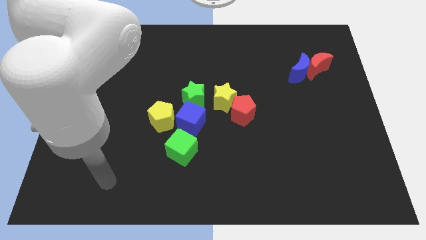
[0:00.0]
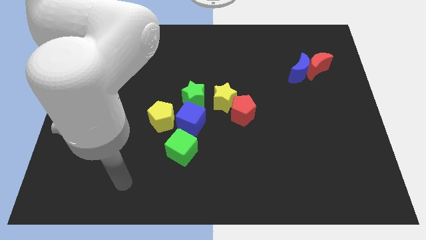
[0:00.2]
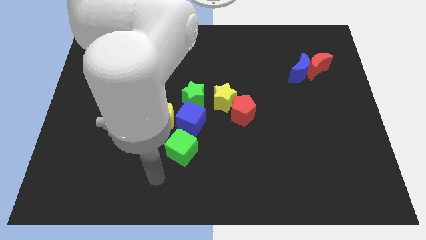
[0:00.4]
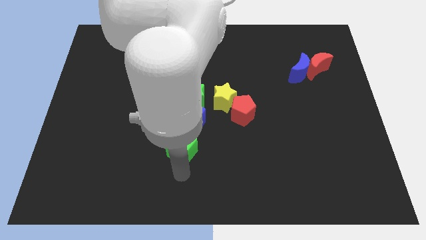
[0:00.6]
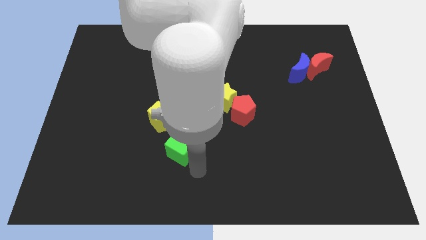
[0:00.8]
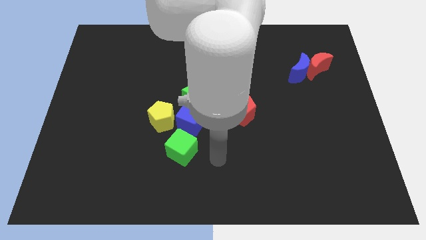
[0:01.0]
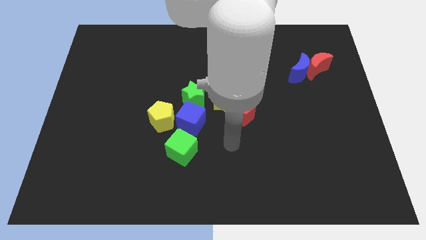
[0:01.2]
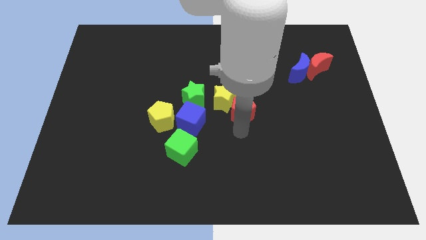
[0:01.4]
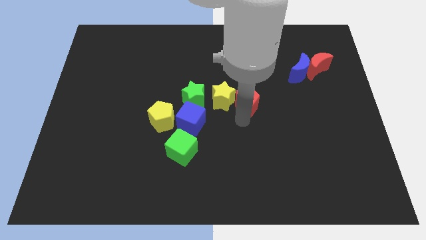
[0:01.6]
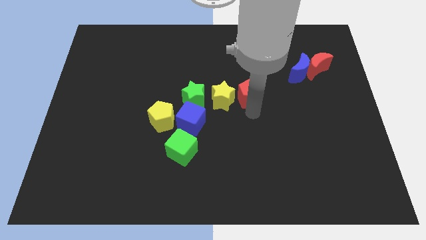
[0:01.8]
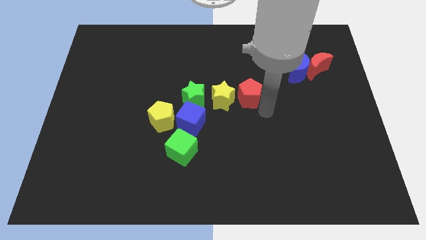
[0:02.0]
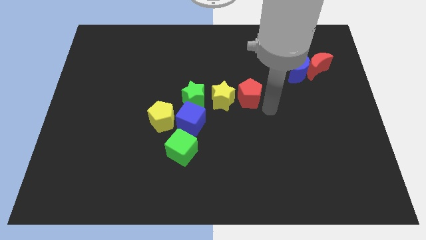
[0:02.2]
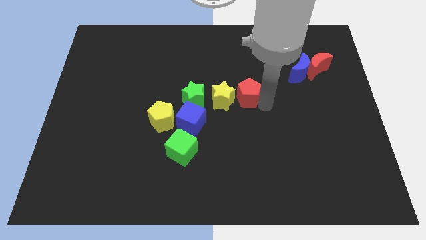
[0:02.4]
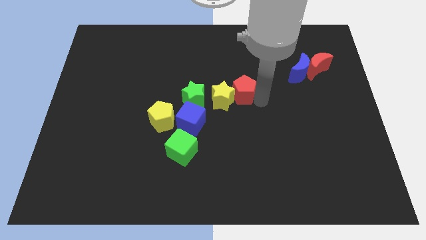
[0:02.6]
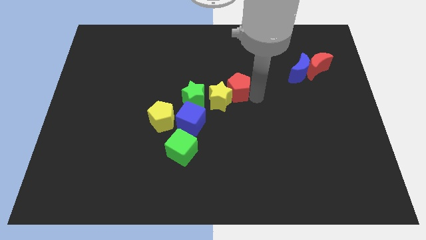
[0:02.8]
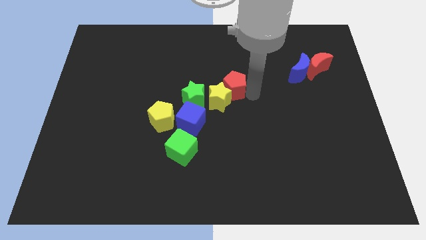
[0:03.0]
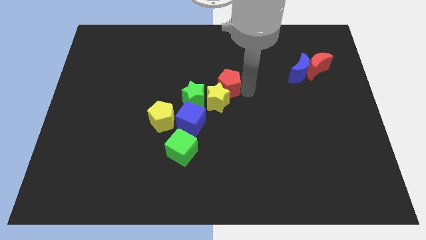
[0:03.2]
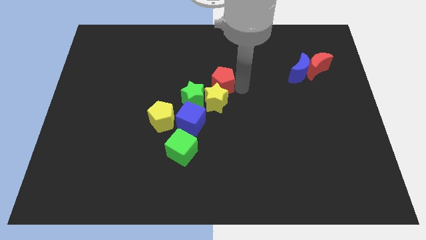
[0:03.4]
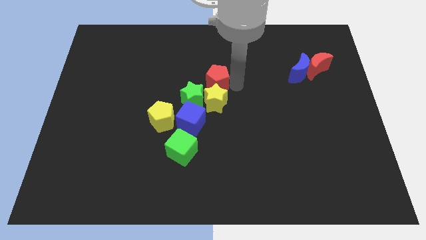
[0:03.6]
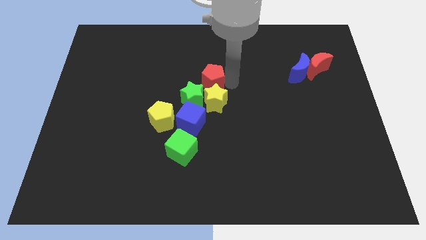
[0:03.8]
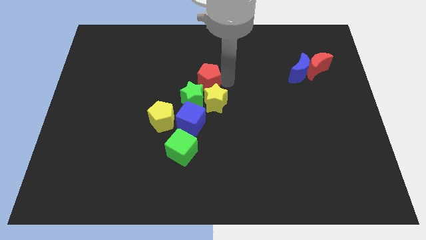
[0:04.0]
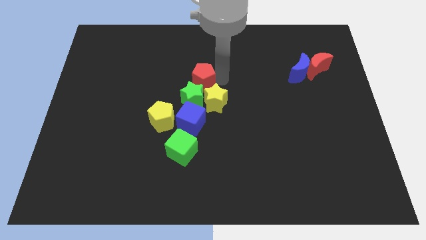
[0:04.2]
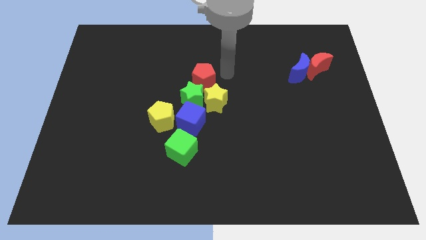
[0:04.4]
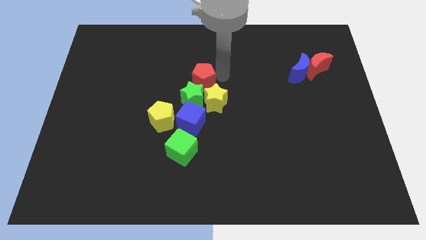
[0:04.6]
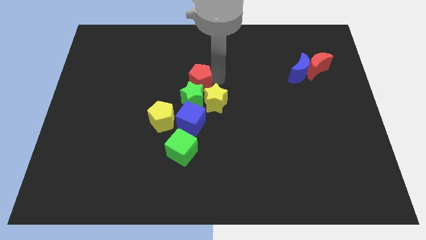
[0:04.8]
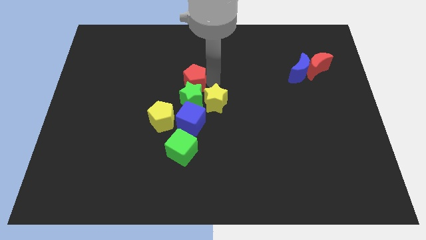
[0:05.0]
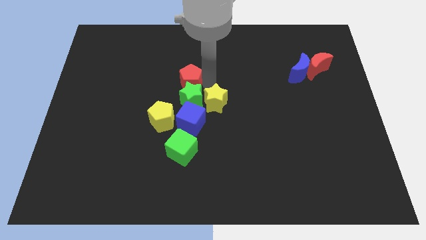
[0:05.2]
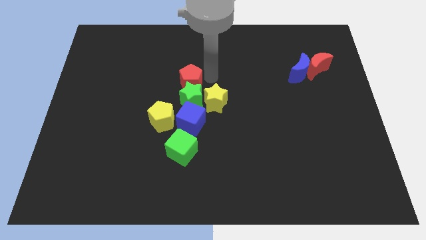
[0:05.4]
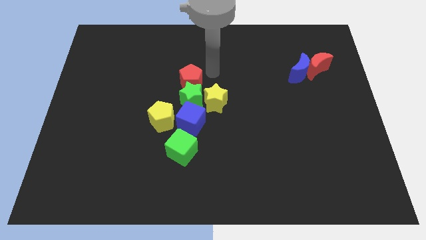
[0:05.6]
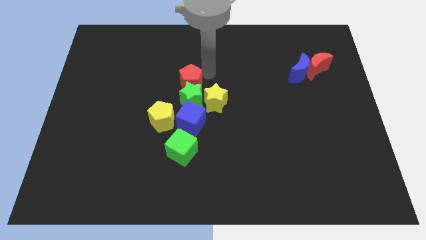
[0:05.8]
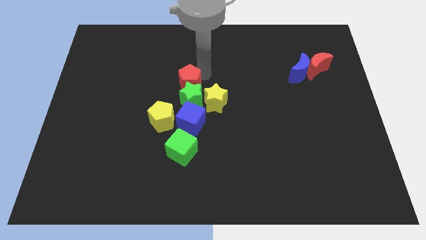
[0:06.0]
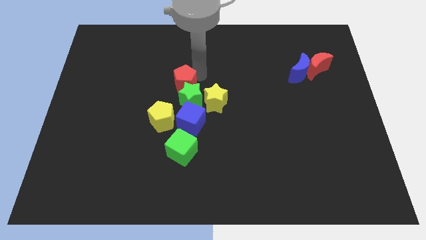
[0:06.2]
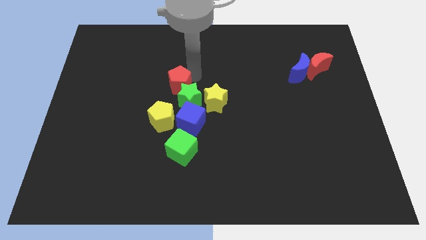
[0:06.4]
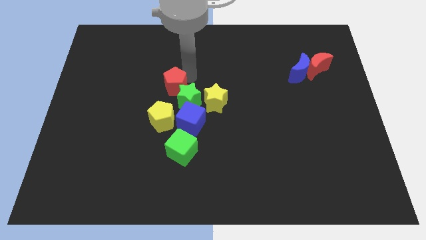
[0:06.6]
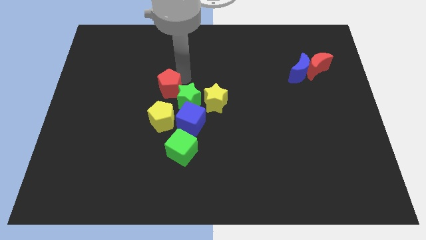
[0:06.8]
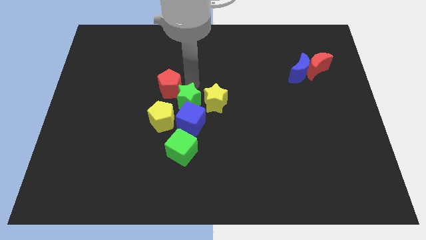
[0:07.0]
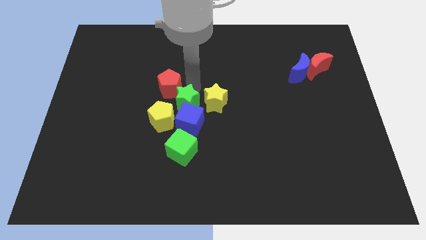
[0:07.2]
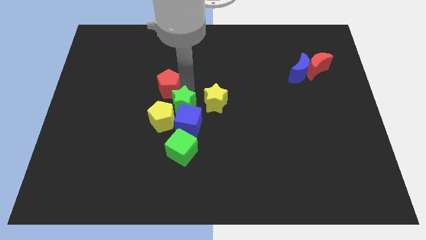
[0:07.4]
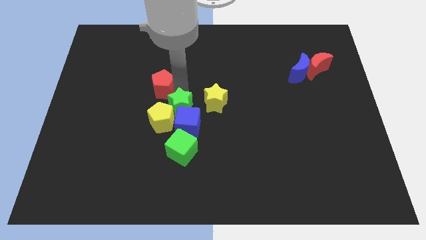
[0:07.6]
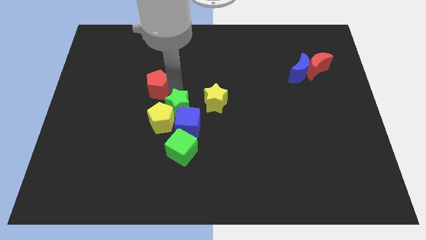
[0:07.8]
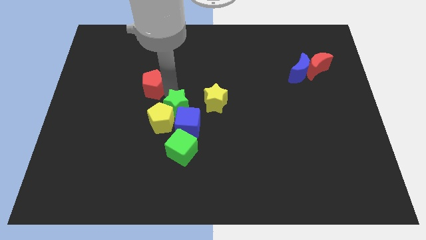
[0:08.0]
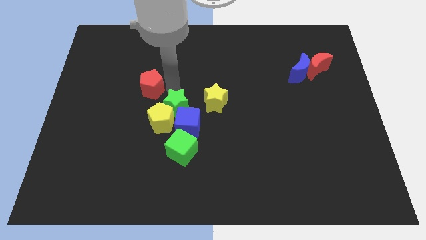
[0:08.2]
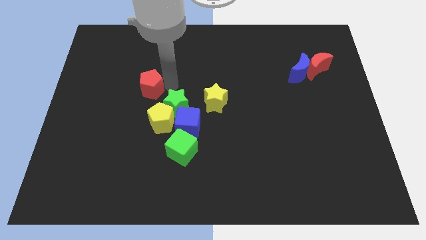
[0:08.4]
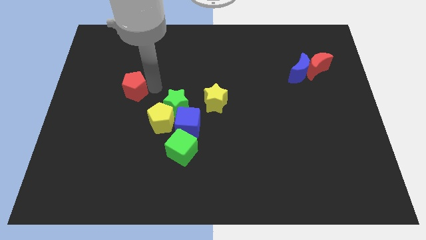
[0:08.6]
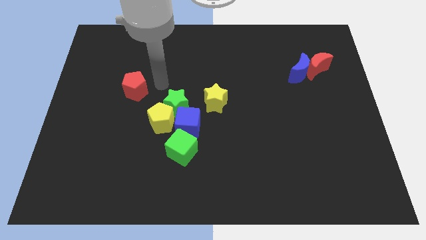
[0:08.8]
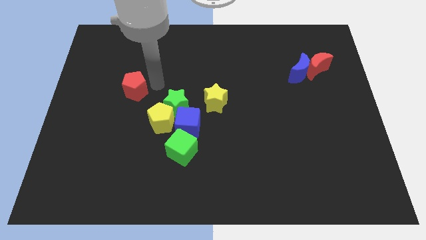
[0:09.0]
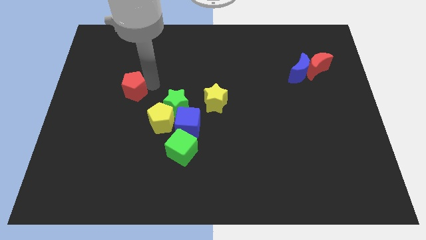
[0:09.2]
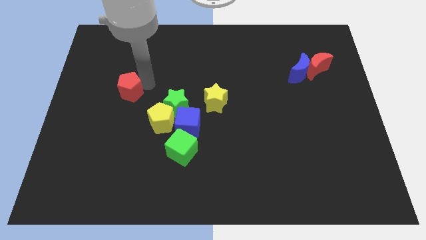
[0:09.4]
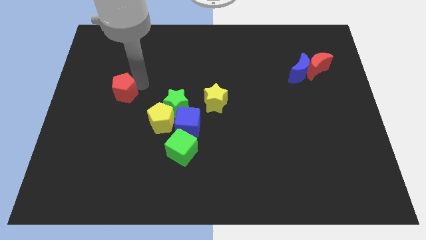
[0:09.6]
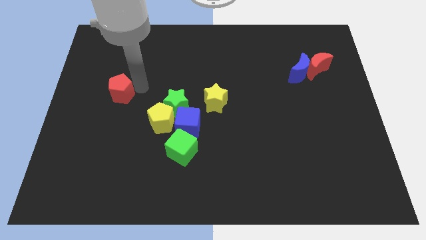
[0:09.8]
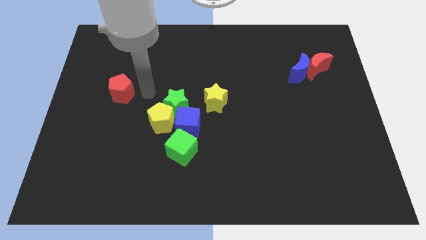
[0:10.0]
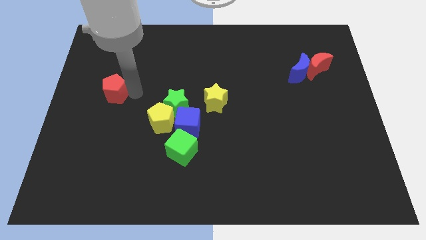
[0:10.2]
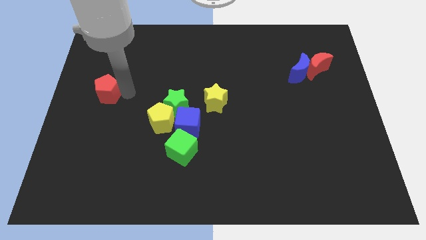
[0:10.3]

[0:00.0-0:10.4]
put the red pentagon to the left side of the board

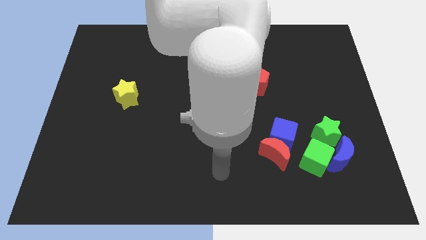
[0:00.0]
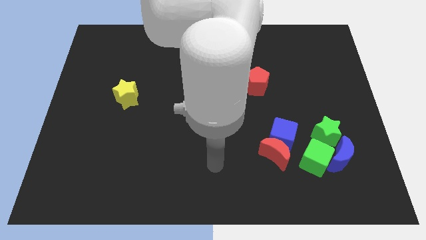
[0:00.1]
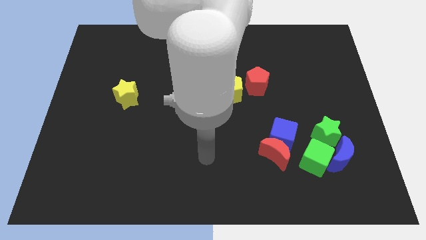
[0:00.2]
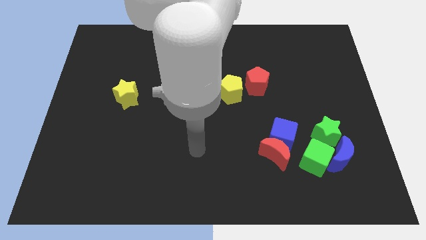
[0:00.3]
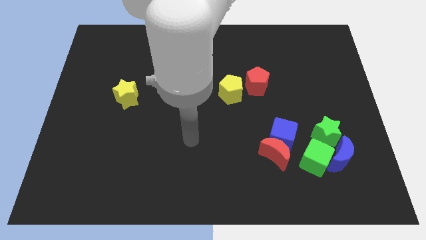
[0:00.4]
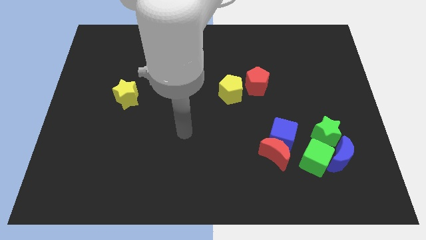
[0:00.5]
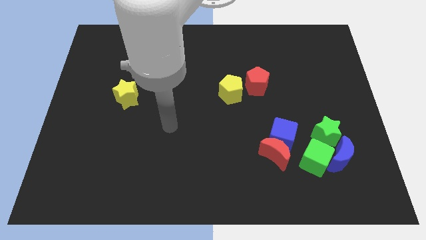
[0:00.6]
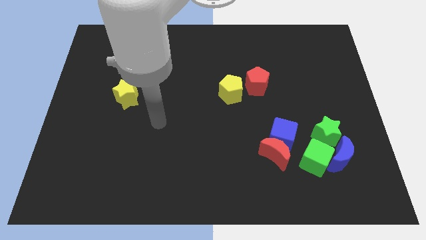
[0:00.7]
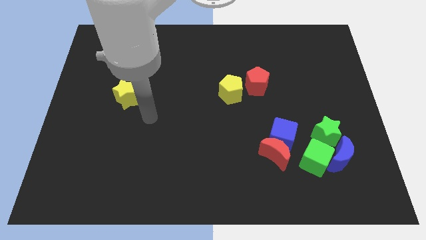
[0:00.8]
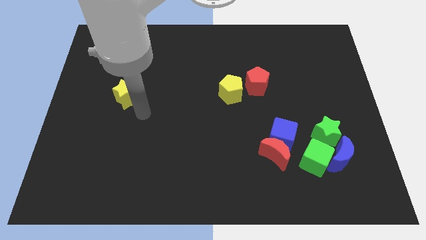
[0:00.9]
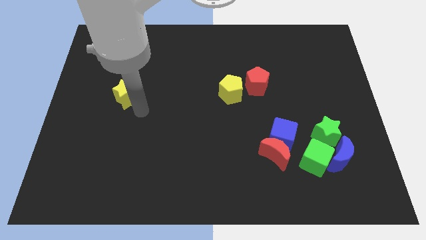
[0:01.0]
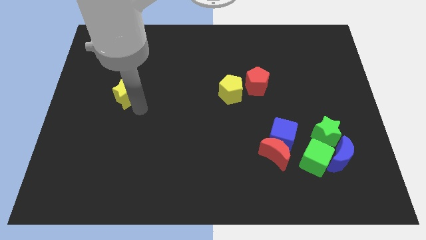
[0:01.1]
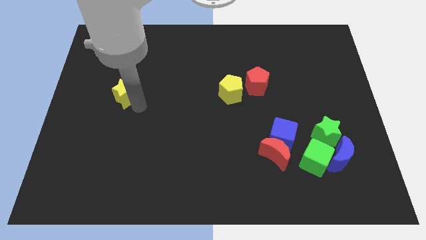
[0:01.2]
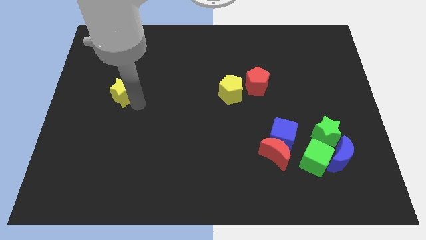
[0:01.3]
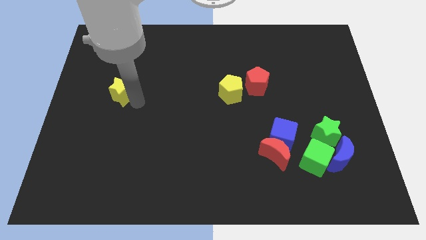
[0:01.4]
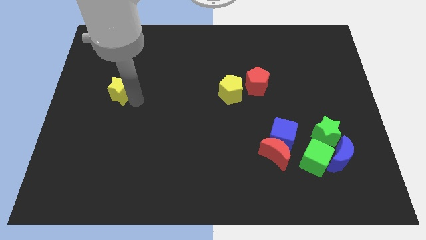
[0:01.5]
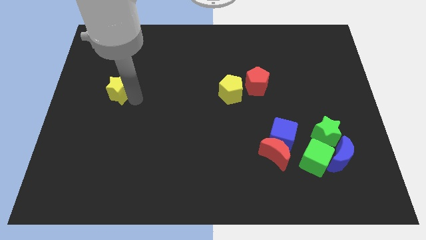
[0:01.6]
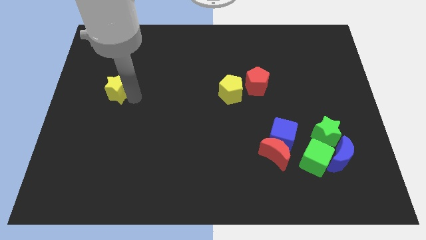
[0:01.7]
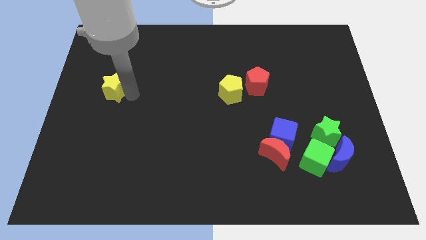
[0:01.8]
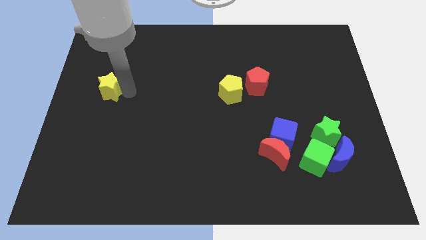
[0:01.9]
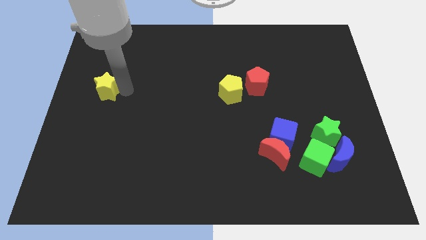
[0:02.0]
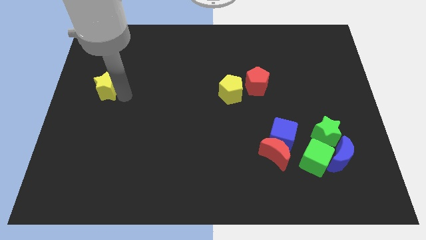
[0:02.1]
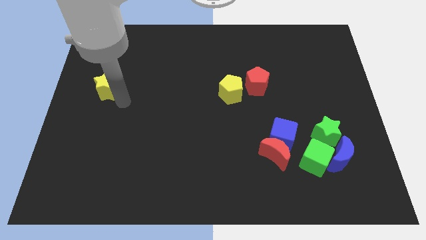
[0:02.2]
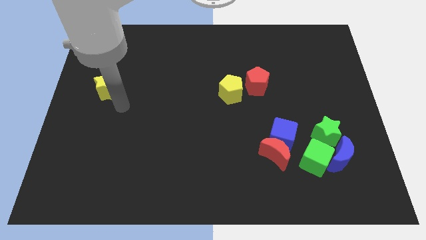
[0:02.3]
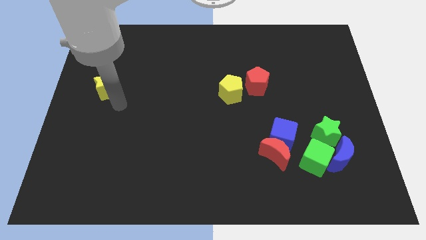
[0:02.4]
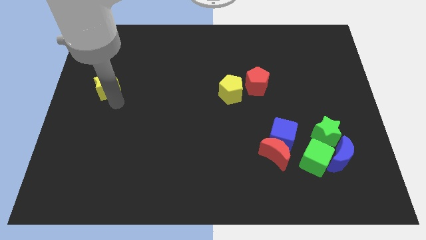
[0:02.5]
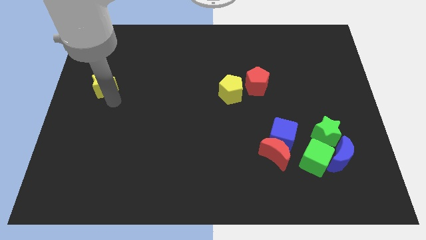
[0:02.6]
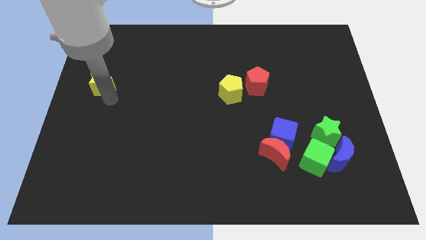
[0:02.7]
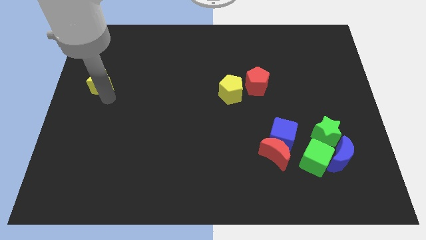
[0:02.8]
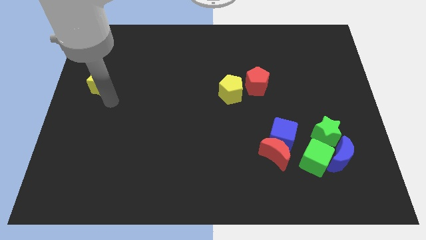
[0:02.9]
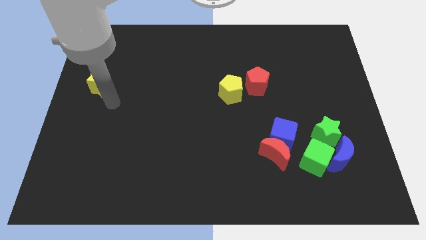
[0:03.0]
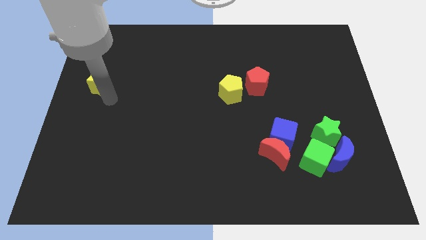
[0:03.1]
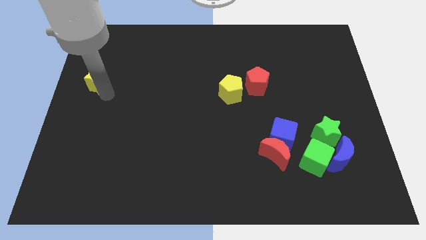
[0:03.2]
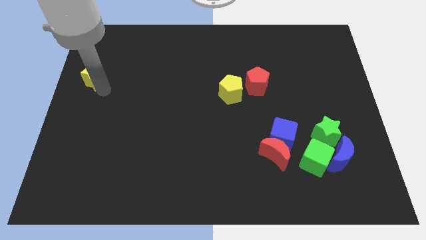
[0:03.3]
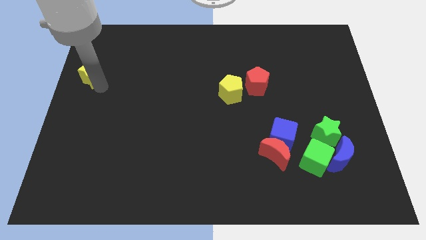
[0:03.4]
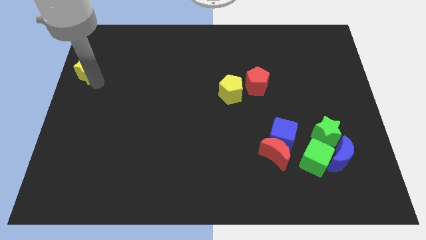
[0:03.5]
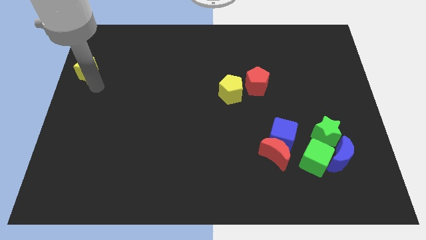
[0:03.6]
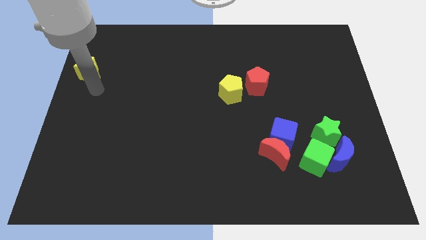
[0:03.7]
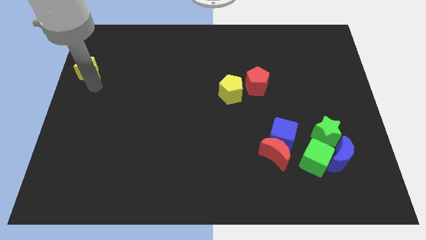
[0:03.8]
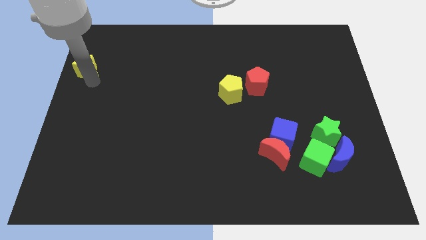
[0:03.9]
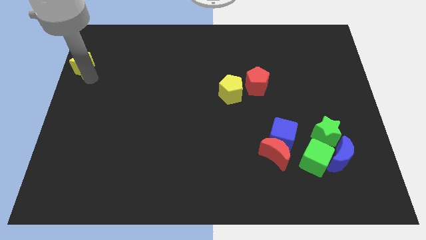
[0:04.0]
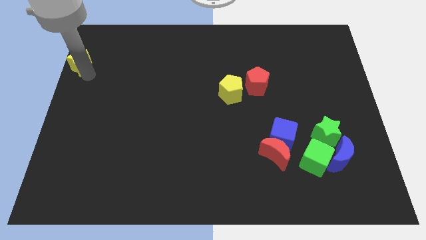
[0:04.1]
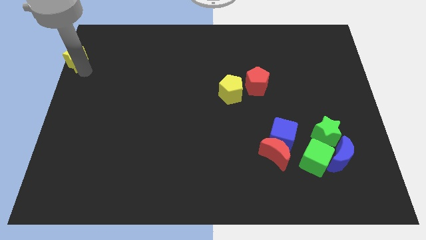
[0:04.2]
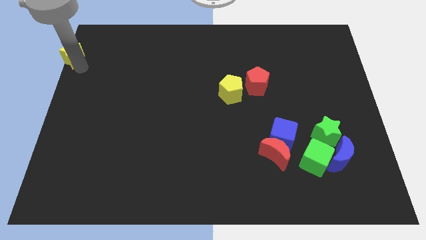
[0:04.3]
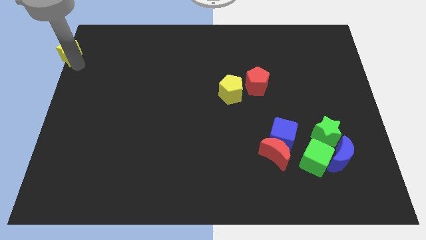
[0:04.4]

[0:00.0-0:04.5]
put the yellow star to the top left of the board
